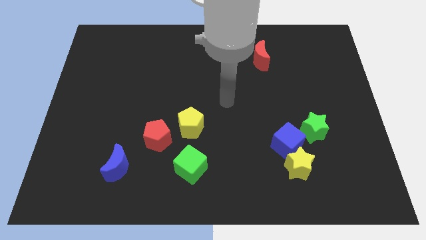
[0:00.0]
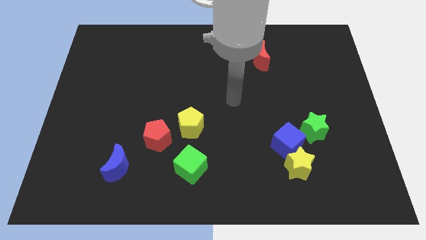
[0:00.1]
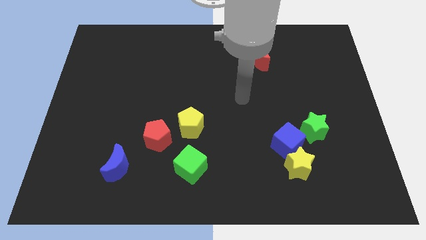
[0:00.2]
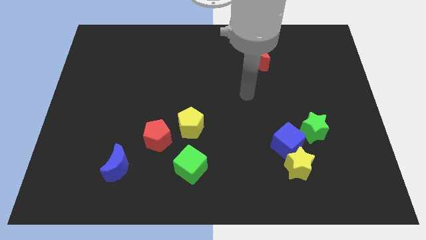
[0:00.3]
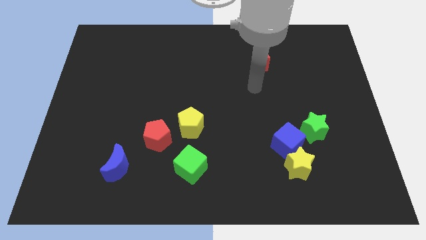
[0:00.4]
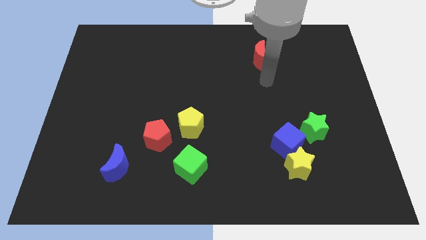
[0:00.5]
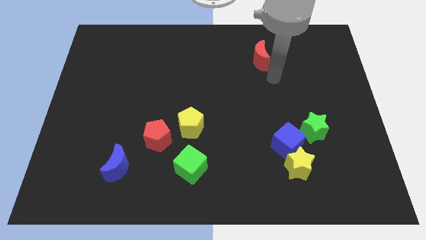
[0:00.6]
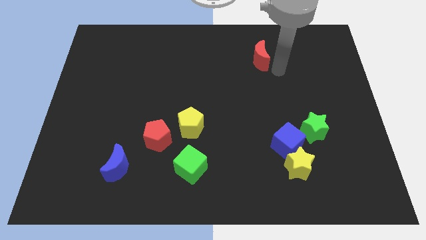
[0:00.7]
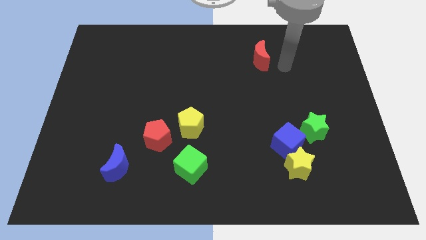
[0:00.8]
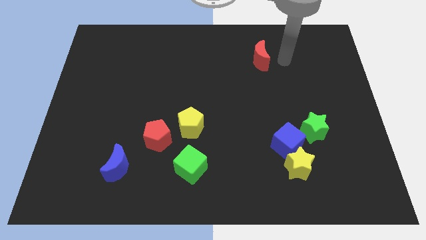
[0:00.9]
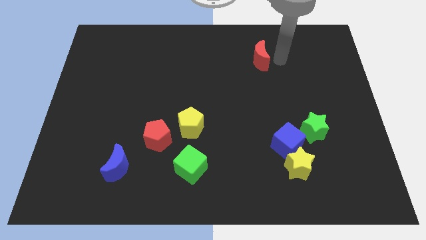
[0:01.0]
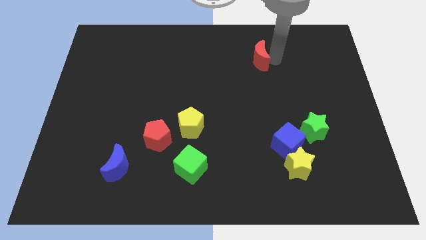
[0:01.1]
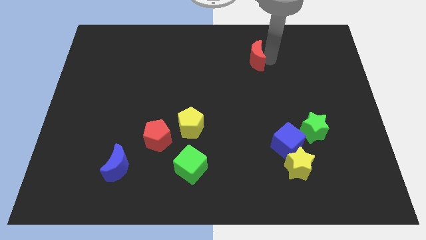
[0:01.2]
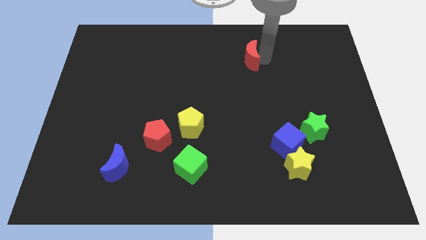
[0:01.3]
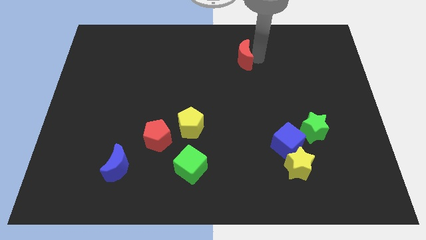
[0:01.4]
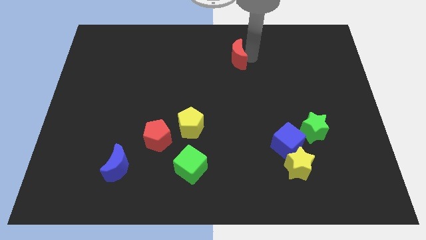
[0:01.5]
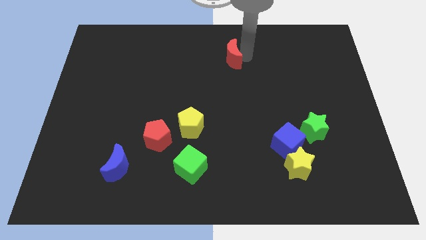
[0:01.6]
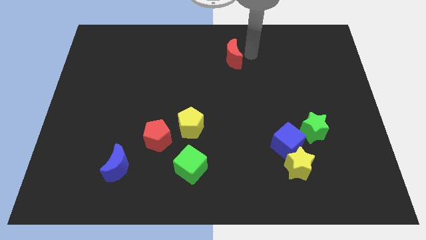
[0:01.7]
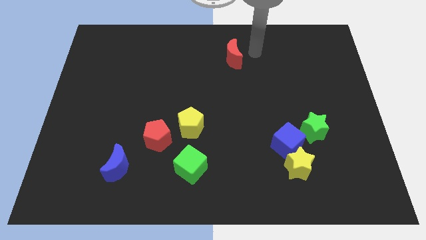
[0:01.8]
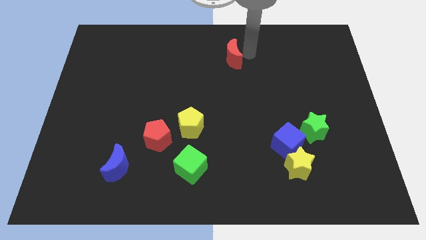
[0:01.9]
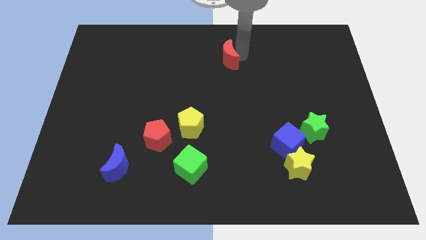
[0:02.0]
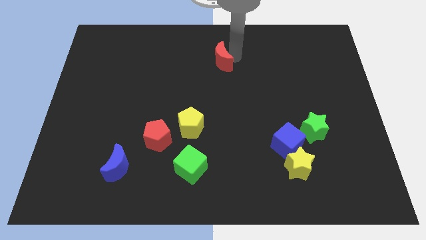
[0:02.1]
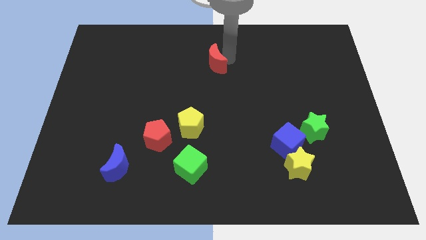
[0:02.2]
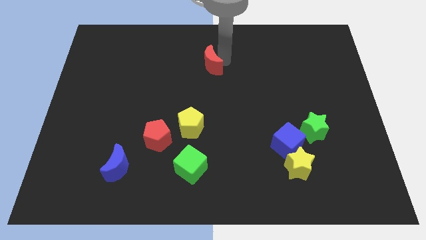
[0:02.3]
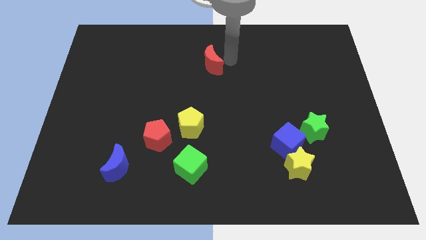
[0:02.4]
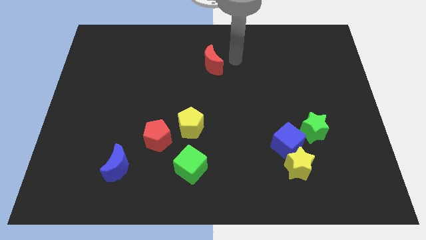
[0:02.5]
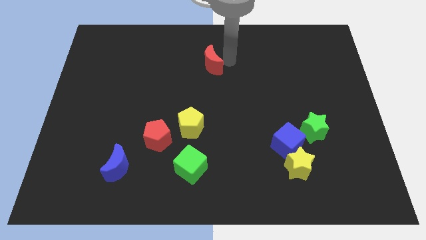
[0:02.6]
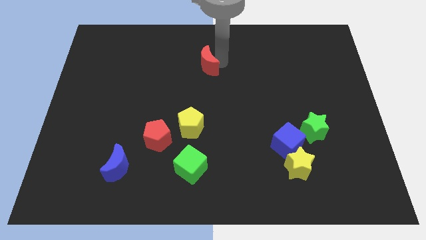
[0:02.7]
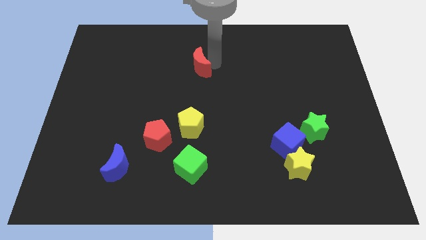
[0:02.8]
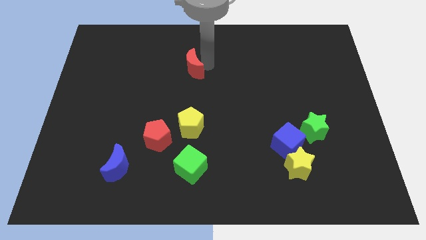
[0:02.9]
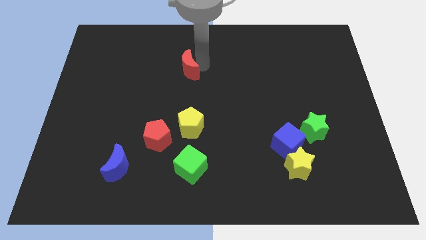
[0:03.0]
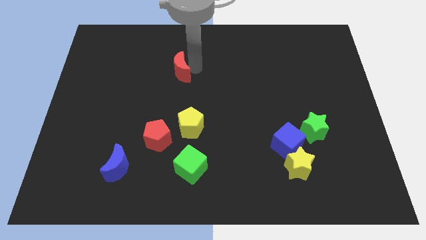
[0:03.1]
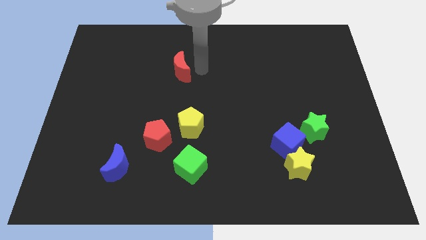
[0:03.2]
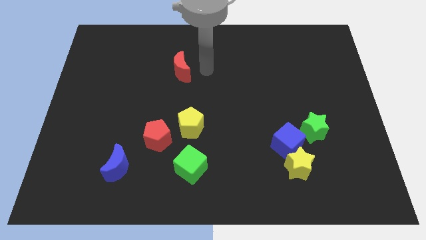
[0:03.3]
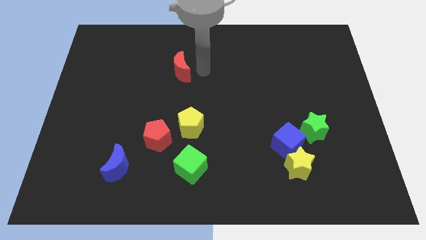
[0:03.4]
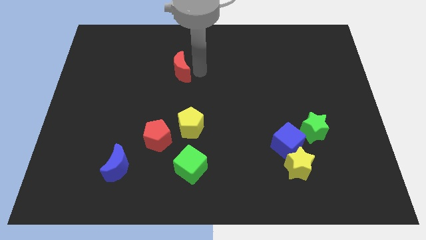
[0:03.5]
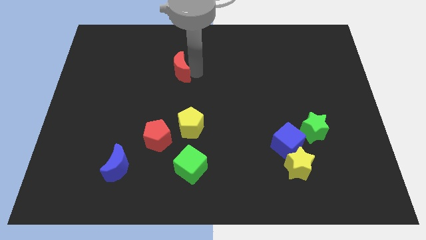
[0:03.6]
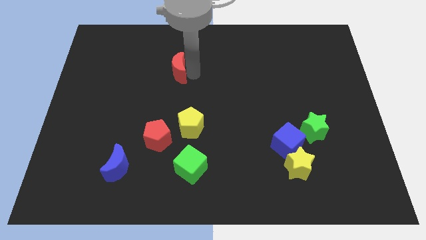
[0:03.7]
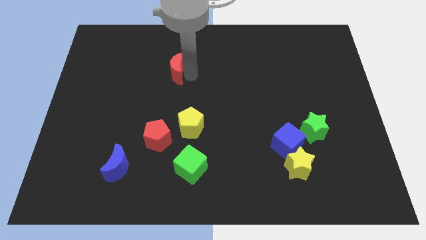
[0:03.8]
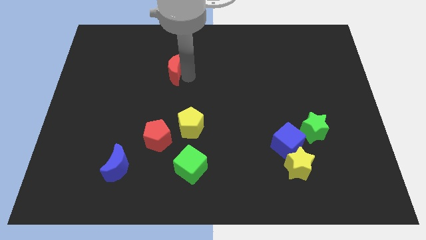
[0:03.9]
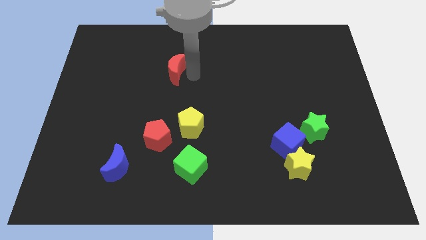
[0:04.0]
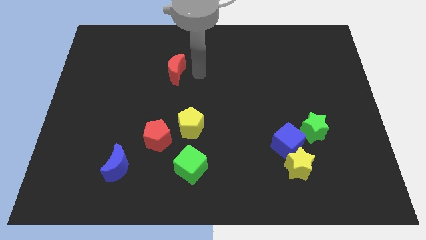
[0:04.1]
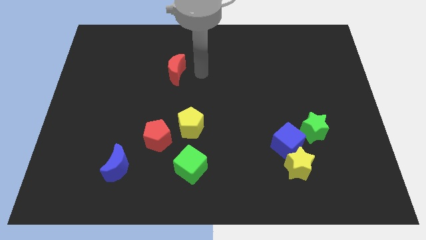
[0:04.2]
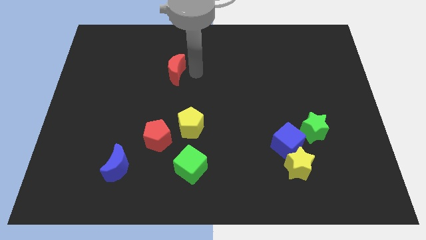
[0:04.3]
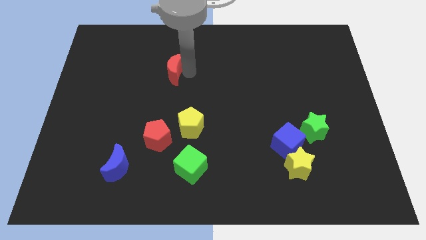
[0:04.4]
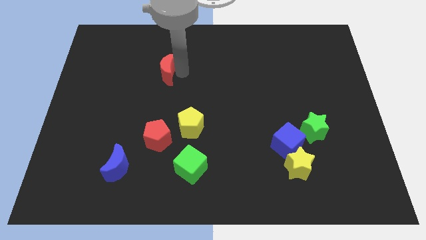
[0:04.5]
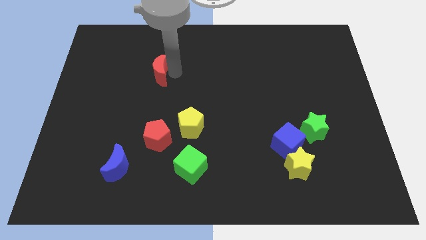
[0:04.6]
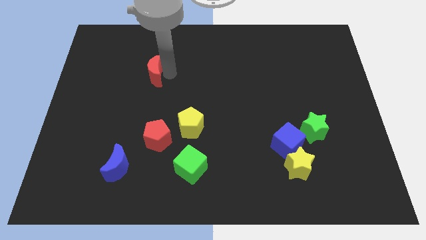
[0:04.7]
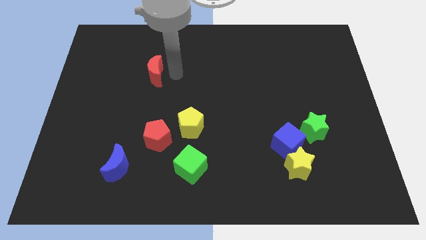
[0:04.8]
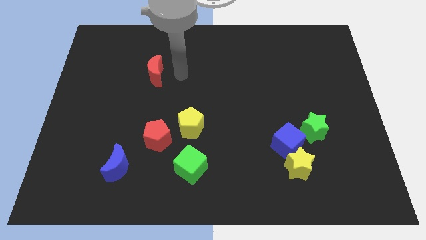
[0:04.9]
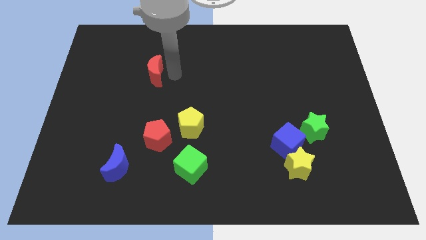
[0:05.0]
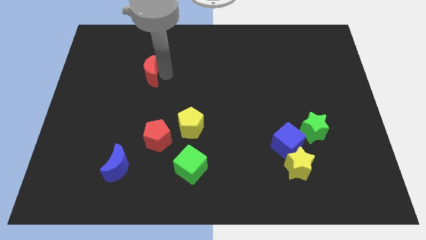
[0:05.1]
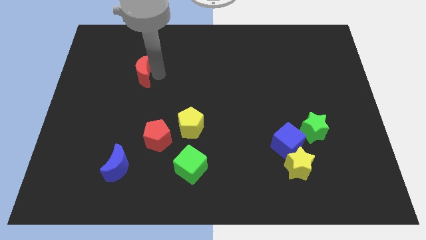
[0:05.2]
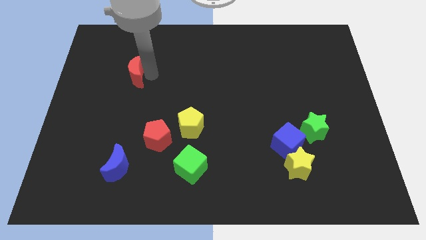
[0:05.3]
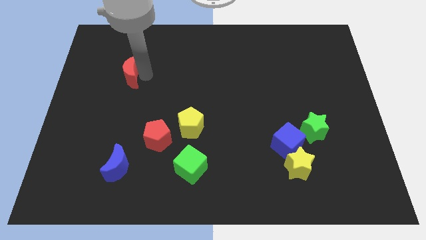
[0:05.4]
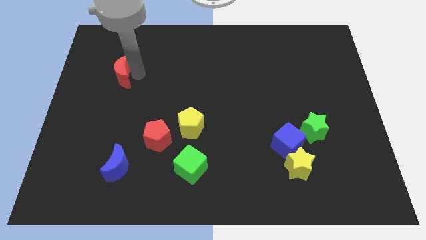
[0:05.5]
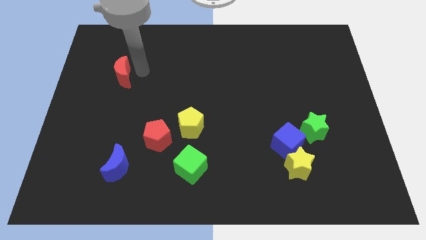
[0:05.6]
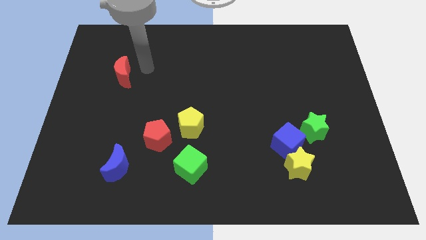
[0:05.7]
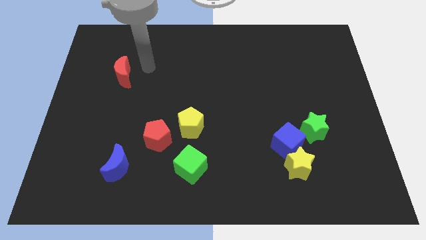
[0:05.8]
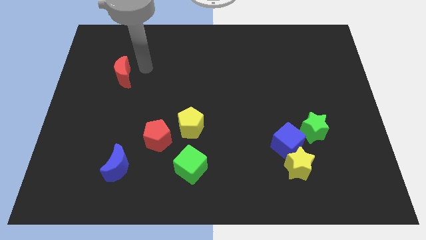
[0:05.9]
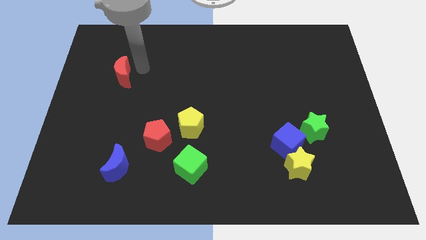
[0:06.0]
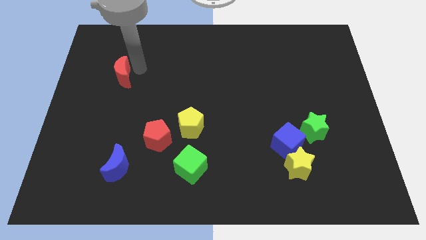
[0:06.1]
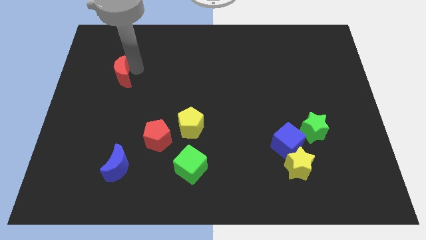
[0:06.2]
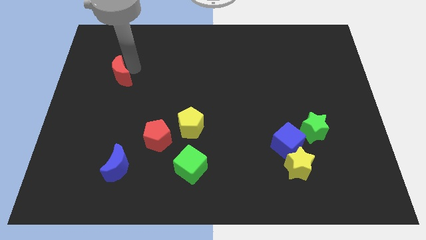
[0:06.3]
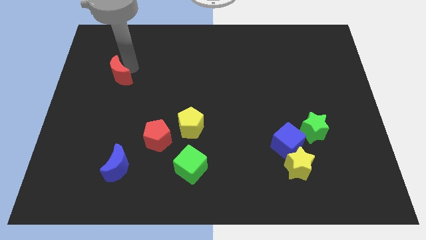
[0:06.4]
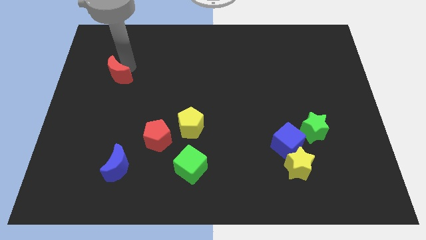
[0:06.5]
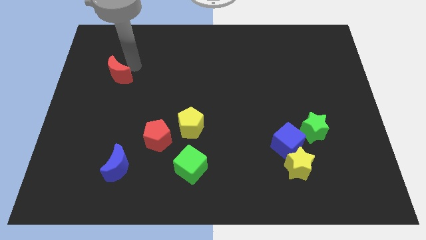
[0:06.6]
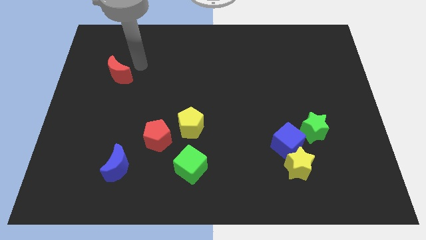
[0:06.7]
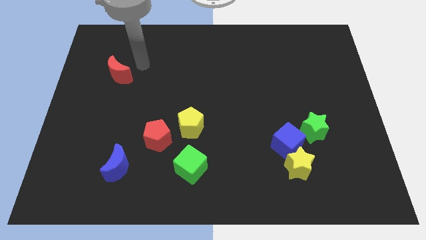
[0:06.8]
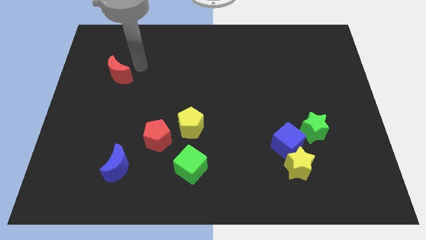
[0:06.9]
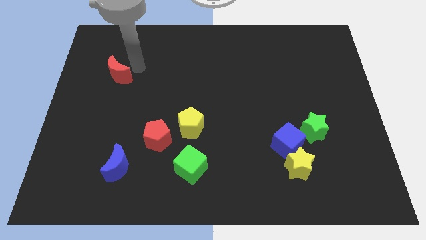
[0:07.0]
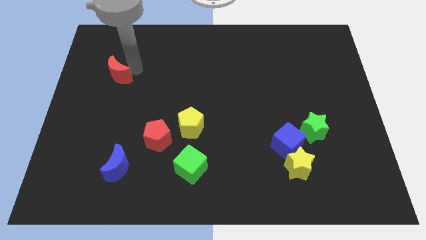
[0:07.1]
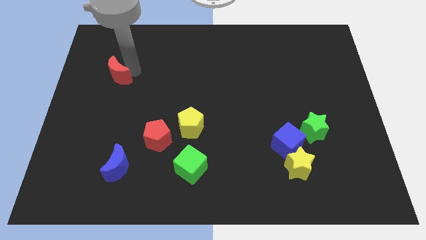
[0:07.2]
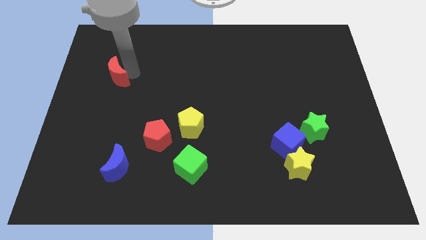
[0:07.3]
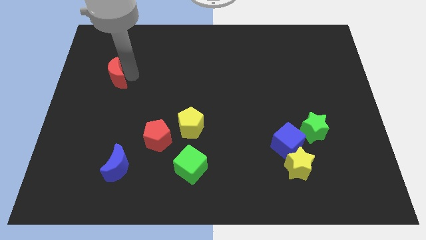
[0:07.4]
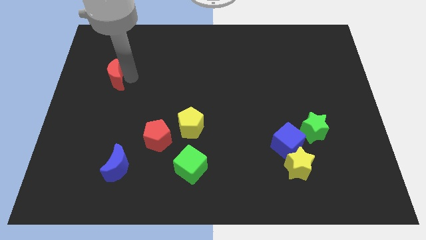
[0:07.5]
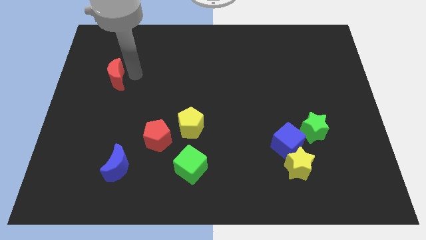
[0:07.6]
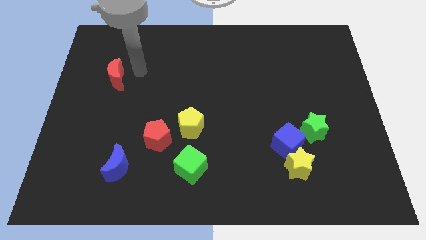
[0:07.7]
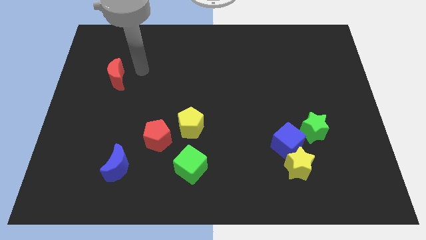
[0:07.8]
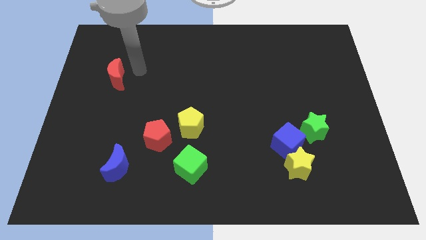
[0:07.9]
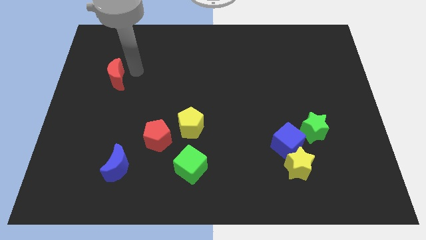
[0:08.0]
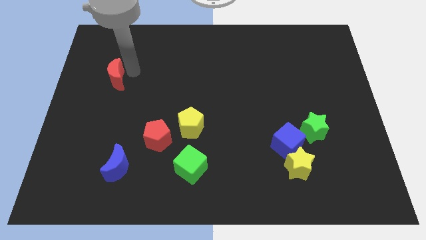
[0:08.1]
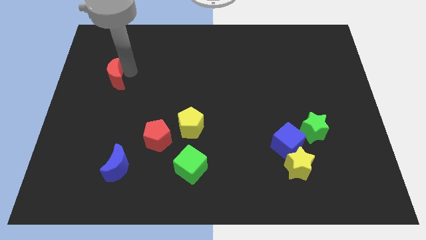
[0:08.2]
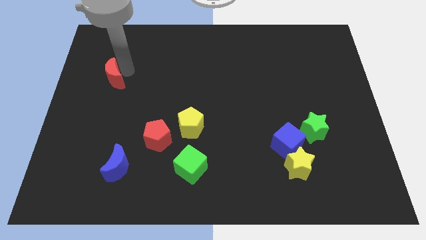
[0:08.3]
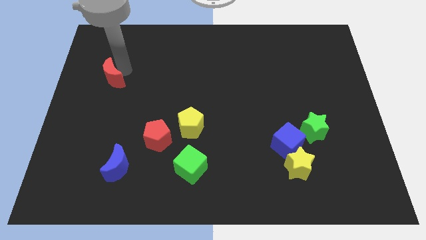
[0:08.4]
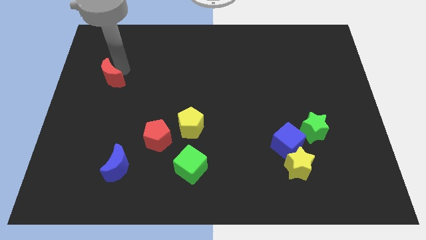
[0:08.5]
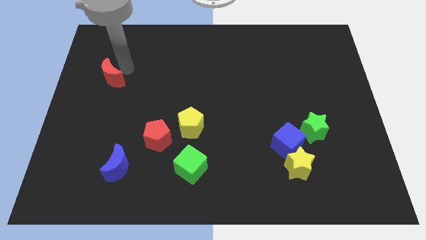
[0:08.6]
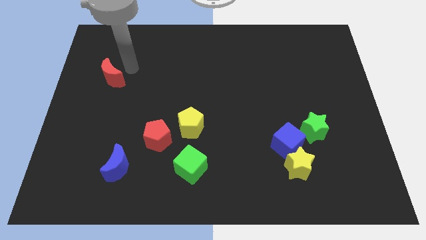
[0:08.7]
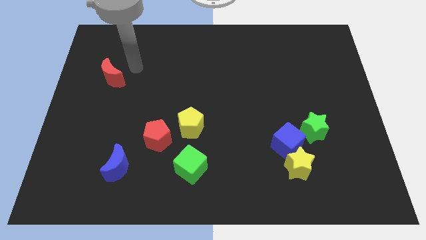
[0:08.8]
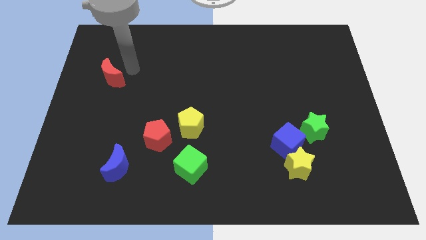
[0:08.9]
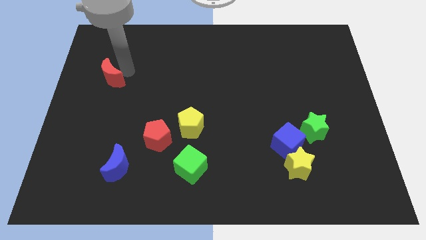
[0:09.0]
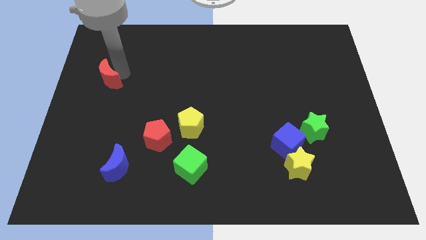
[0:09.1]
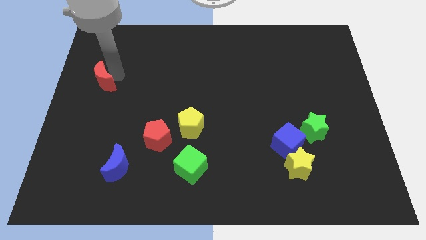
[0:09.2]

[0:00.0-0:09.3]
move the red moon to the left side of the board
